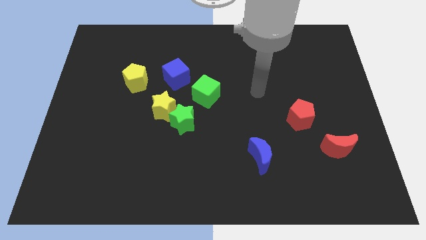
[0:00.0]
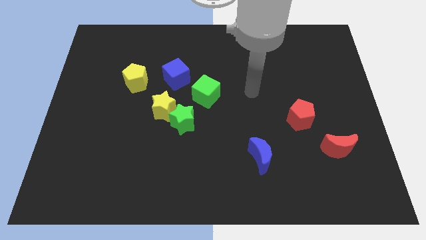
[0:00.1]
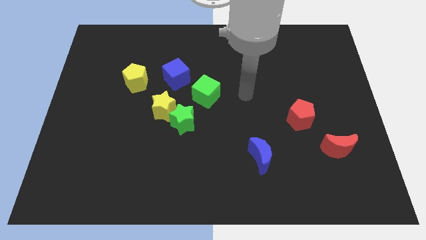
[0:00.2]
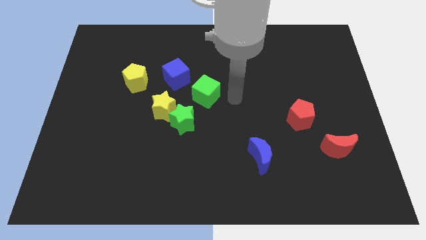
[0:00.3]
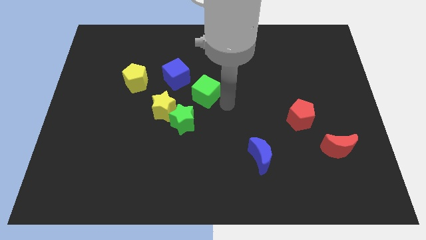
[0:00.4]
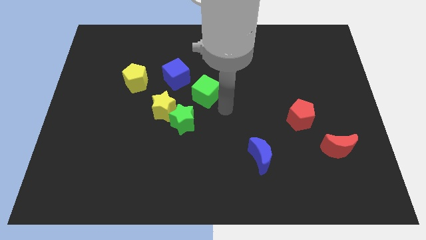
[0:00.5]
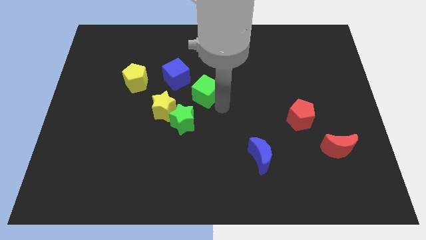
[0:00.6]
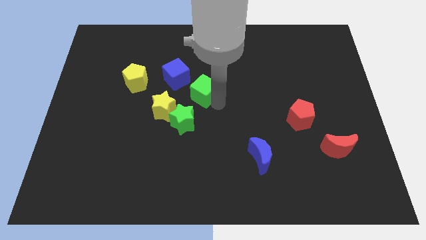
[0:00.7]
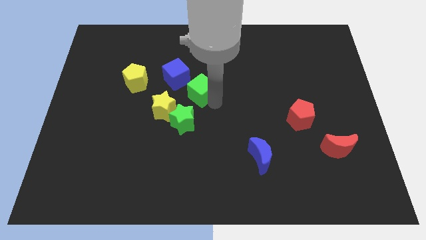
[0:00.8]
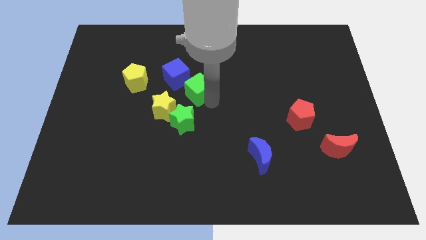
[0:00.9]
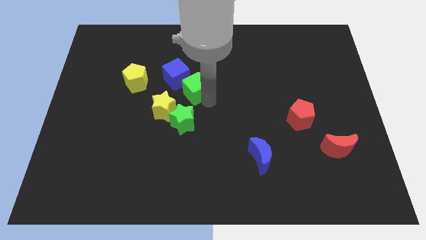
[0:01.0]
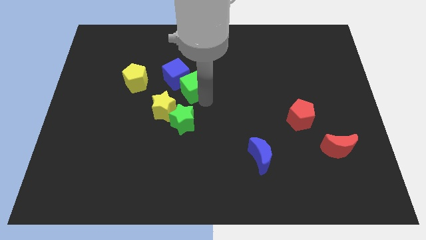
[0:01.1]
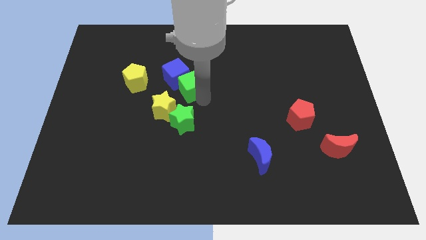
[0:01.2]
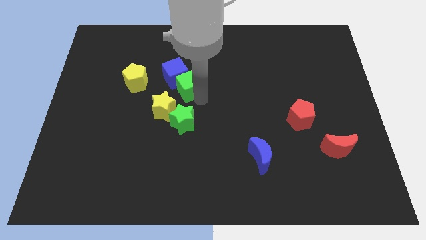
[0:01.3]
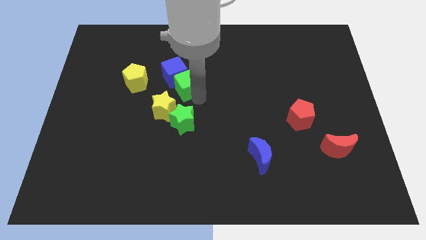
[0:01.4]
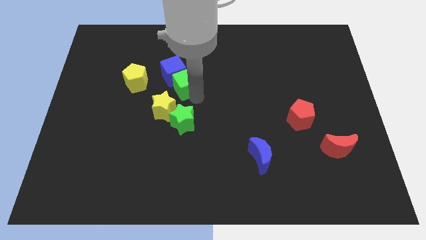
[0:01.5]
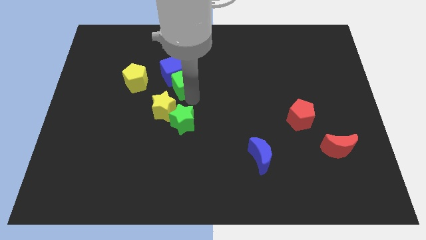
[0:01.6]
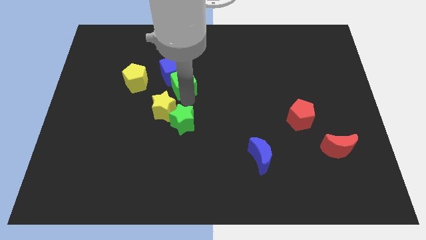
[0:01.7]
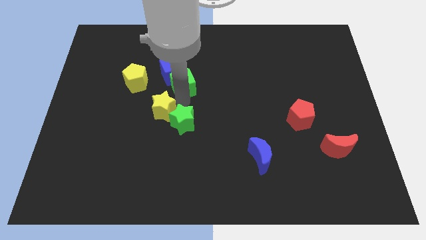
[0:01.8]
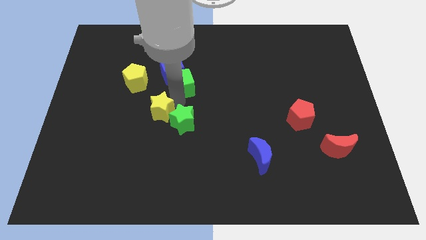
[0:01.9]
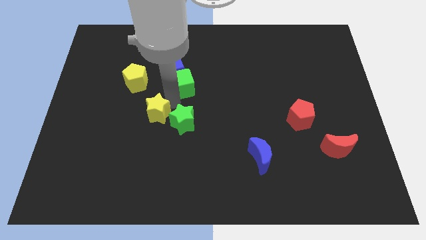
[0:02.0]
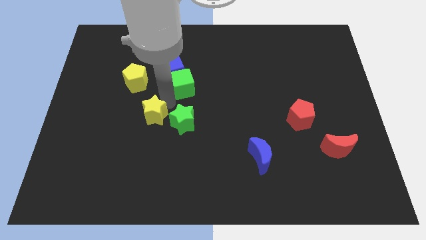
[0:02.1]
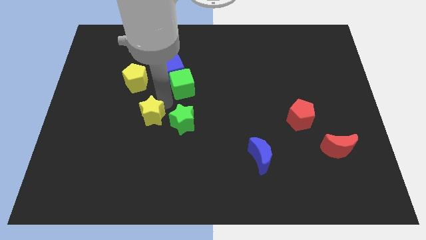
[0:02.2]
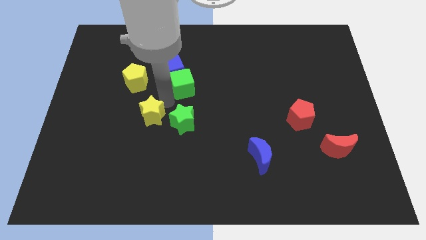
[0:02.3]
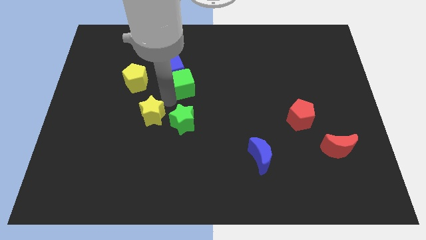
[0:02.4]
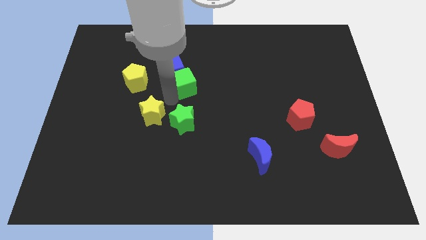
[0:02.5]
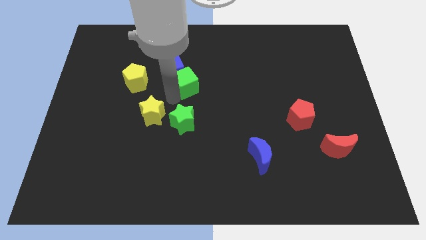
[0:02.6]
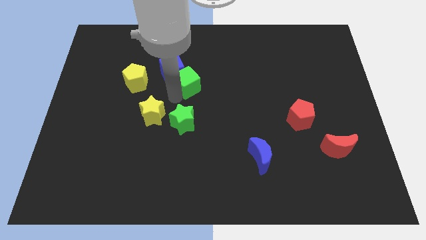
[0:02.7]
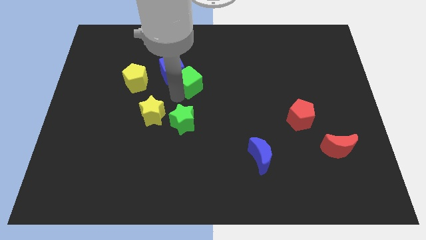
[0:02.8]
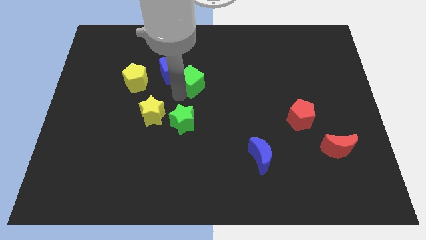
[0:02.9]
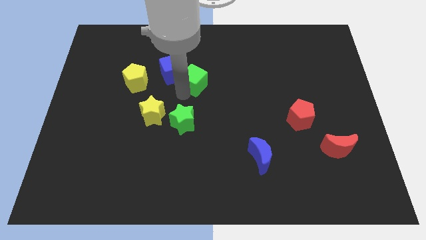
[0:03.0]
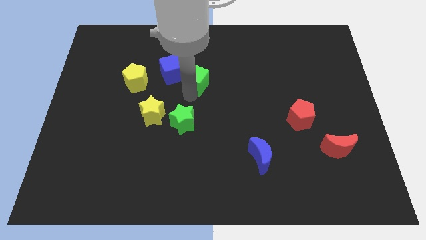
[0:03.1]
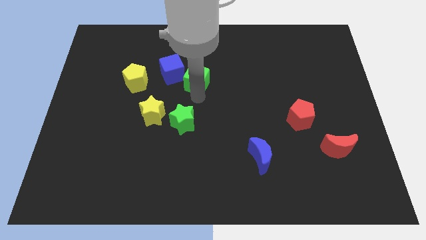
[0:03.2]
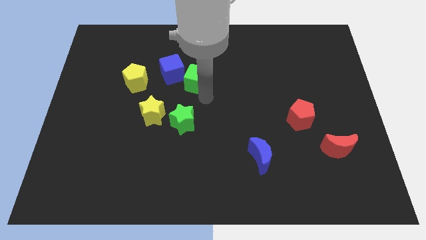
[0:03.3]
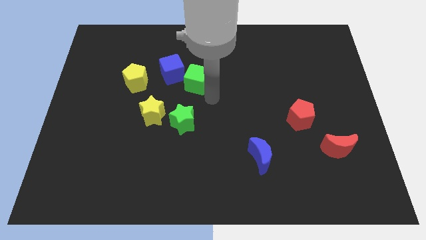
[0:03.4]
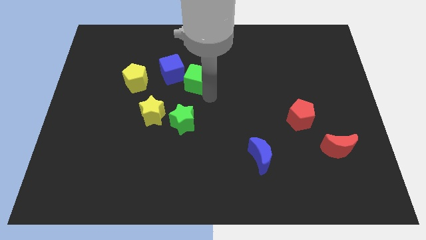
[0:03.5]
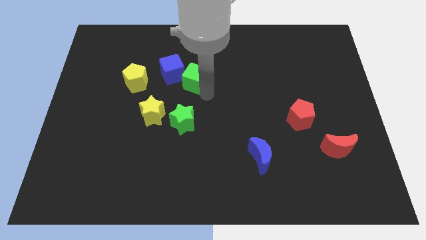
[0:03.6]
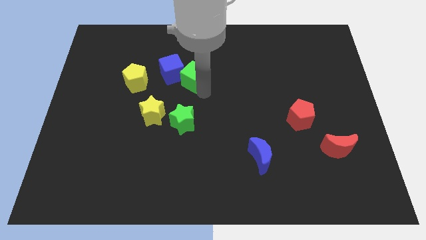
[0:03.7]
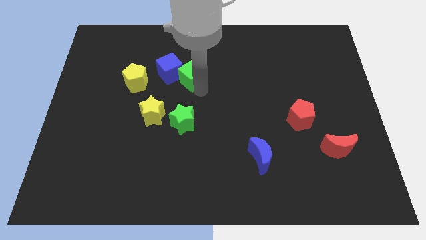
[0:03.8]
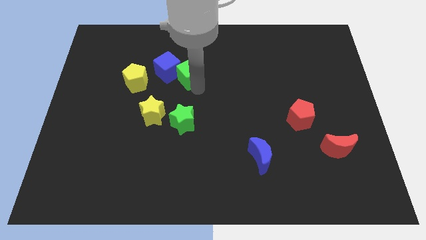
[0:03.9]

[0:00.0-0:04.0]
slightly push the green cube upwards and left

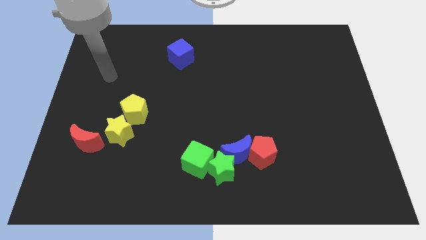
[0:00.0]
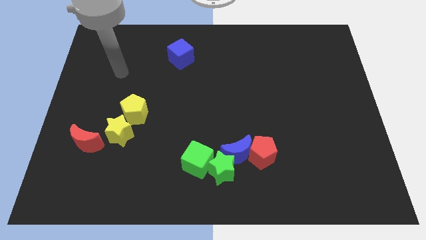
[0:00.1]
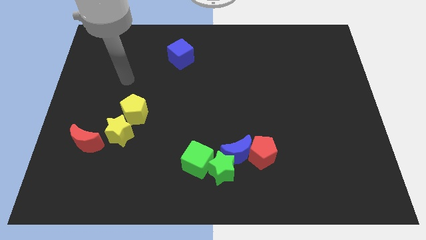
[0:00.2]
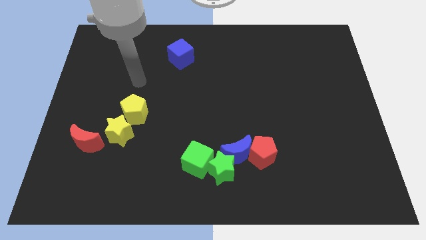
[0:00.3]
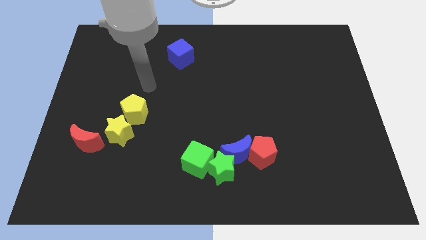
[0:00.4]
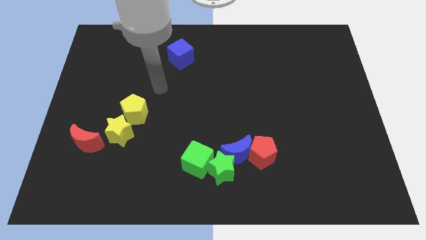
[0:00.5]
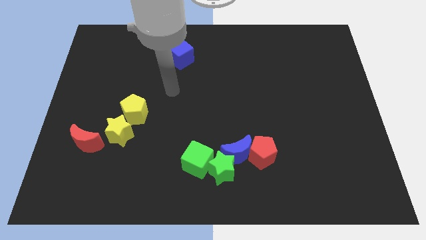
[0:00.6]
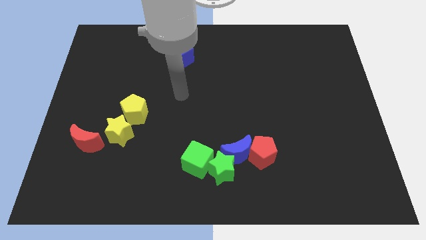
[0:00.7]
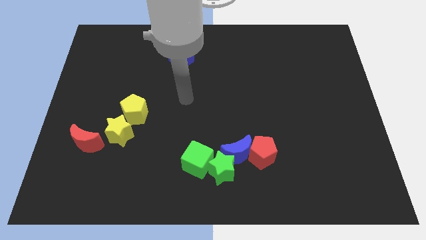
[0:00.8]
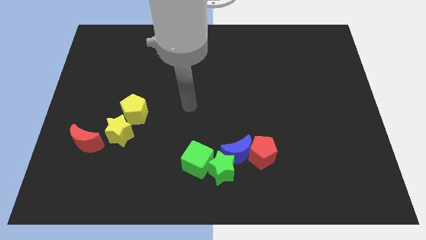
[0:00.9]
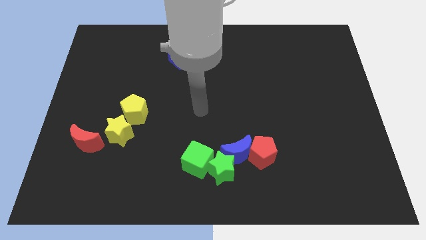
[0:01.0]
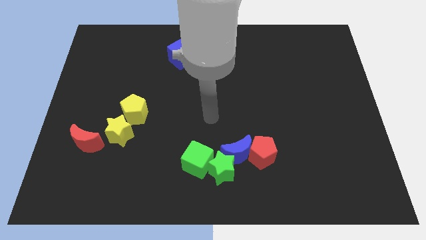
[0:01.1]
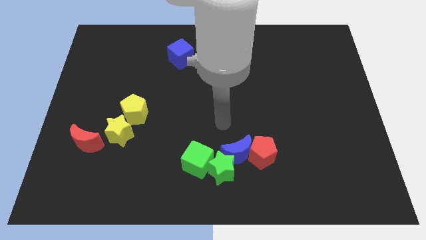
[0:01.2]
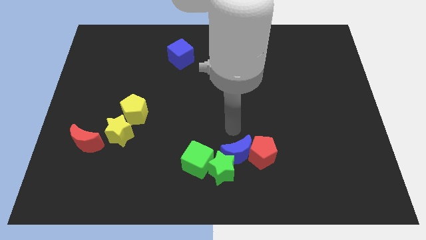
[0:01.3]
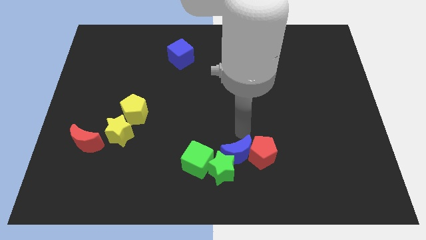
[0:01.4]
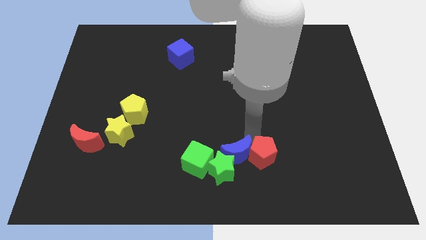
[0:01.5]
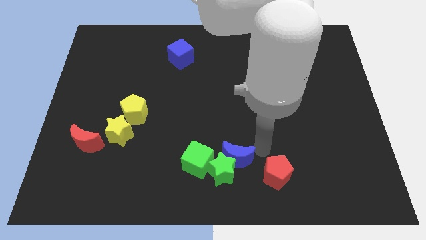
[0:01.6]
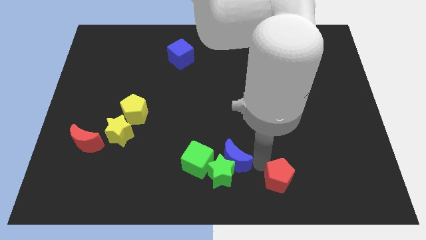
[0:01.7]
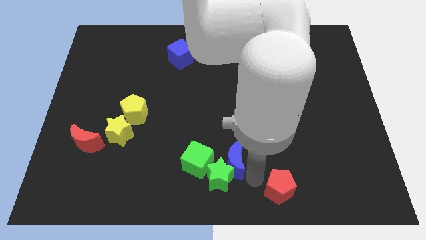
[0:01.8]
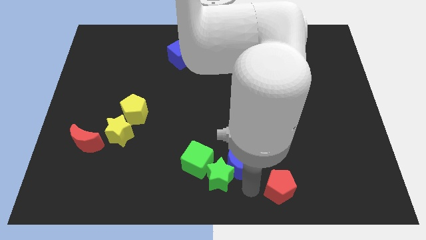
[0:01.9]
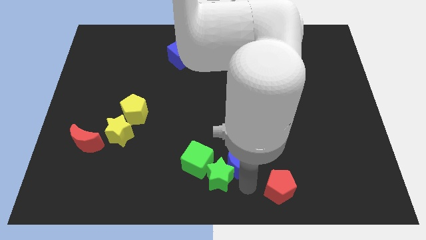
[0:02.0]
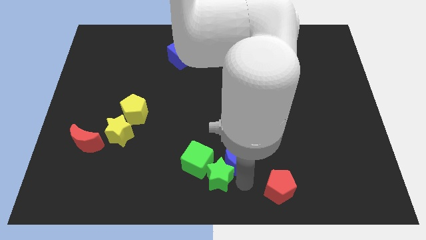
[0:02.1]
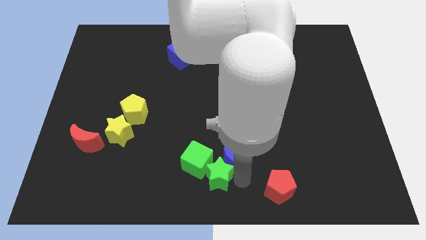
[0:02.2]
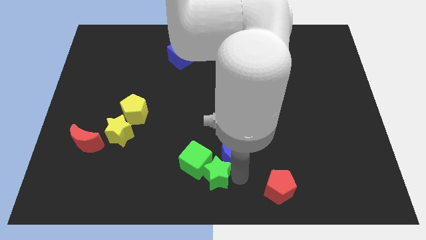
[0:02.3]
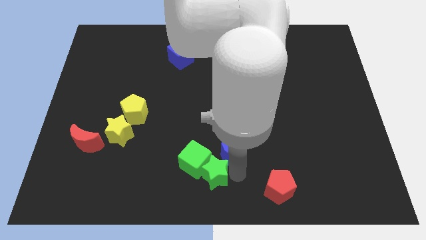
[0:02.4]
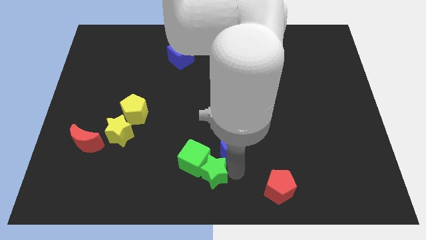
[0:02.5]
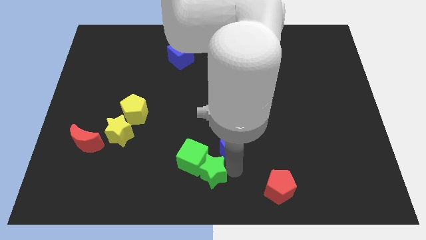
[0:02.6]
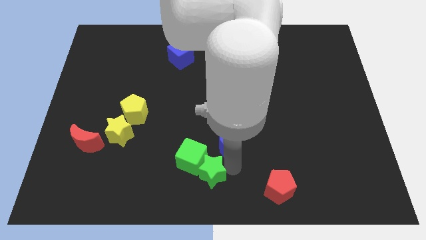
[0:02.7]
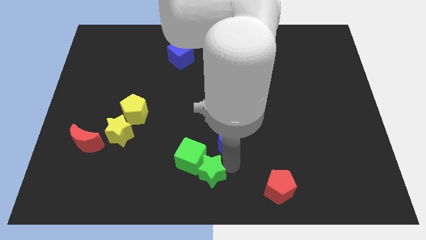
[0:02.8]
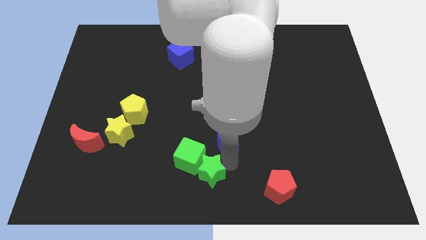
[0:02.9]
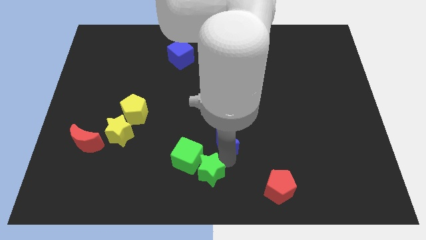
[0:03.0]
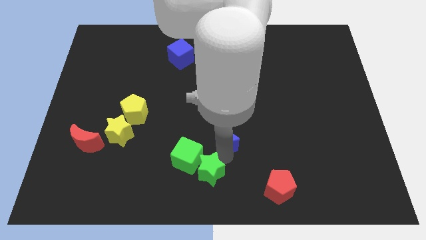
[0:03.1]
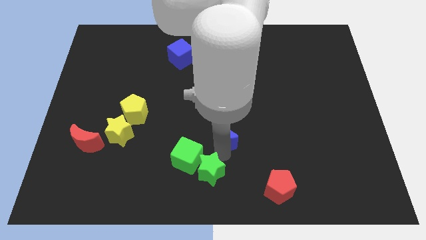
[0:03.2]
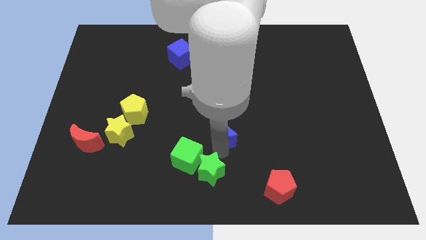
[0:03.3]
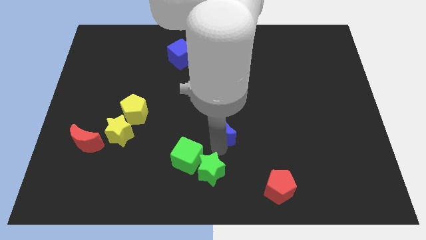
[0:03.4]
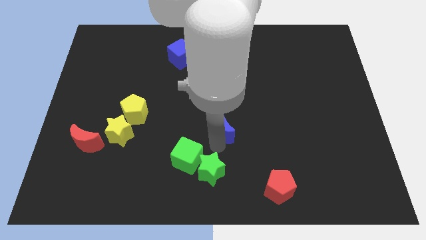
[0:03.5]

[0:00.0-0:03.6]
slightly push the blue moon up and to the left diagonally

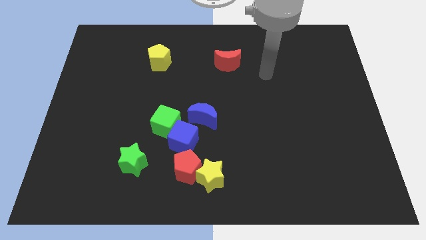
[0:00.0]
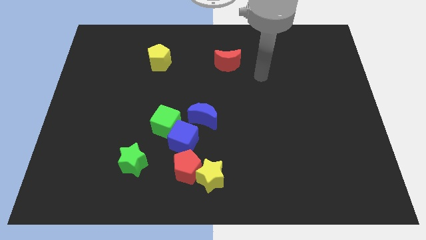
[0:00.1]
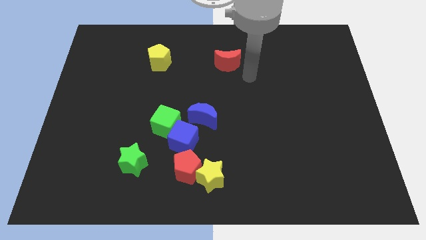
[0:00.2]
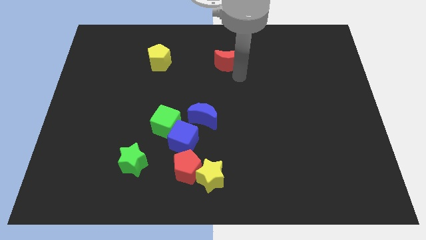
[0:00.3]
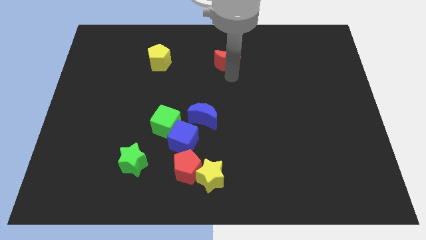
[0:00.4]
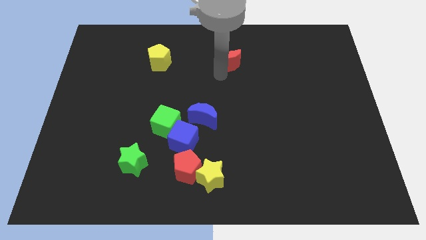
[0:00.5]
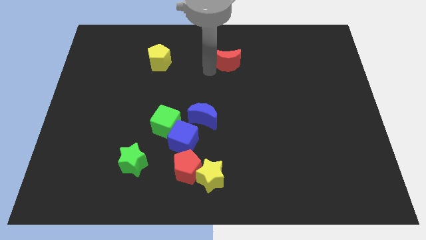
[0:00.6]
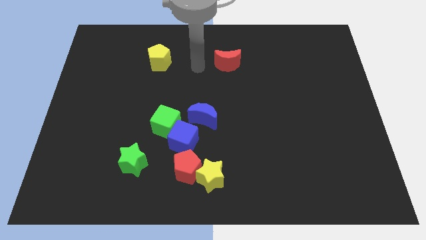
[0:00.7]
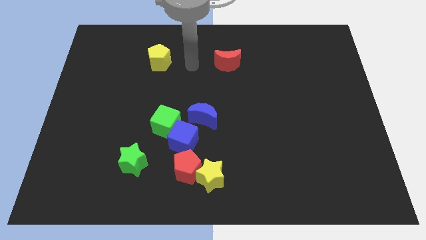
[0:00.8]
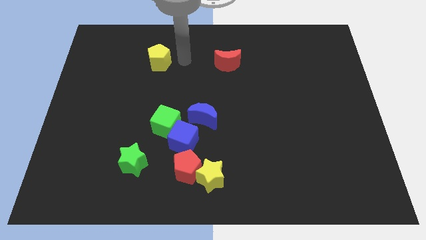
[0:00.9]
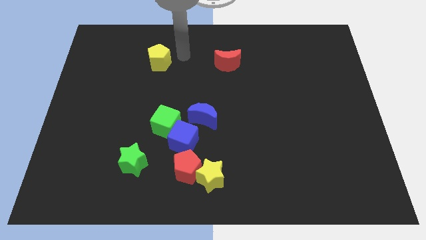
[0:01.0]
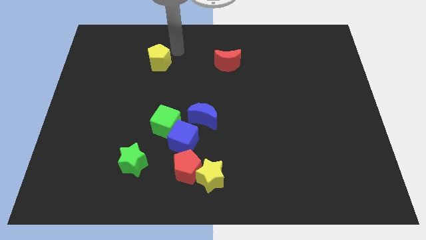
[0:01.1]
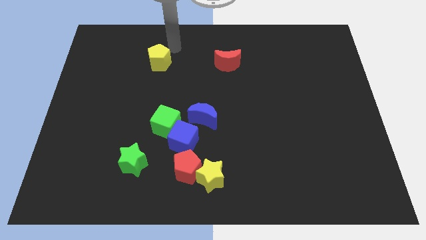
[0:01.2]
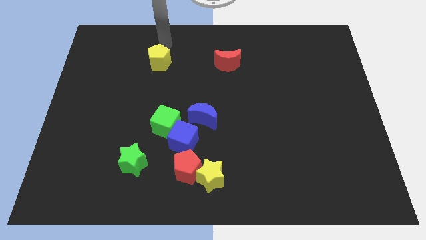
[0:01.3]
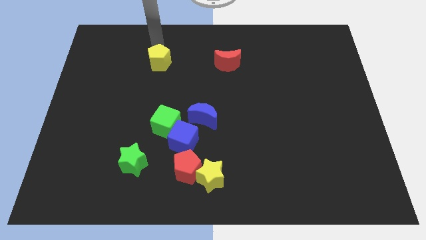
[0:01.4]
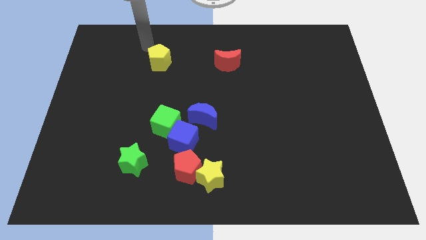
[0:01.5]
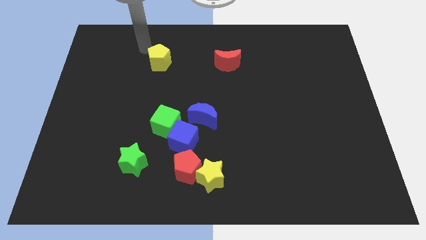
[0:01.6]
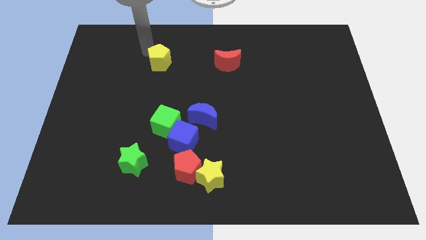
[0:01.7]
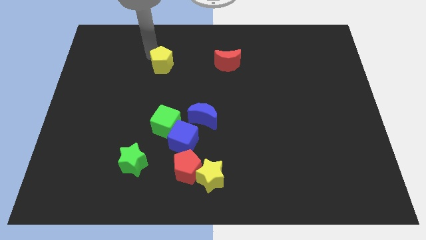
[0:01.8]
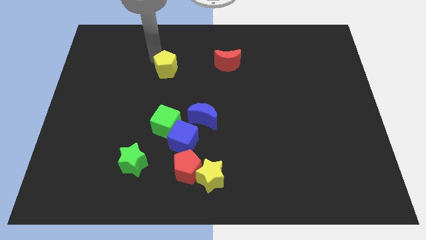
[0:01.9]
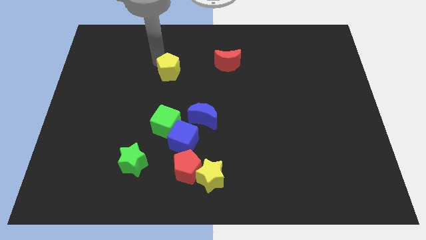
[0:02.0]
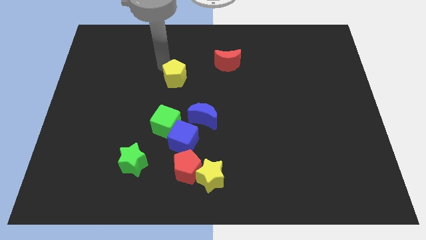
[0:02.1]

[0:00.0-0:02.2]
move the yellow pentagon diagonally down and to the right slightly
